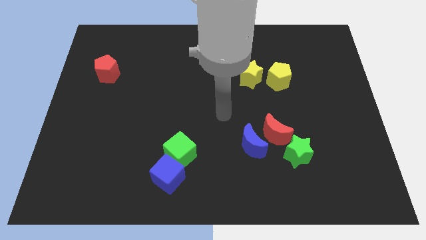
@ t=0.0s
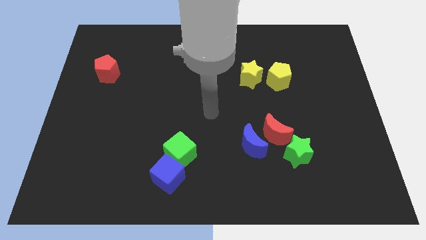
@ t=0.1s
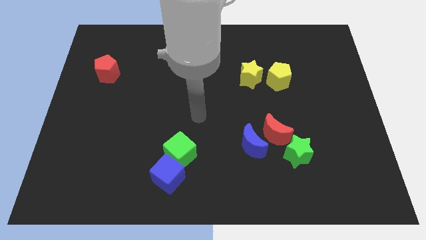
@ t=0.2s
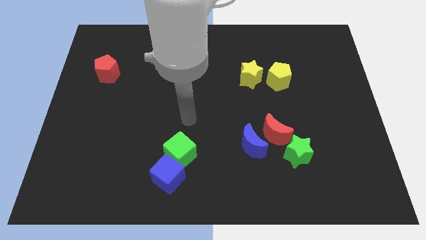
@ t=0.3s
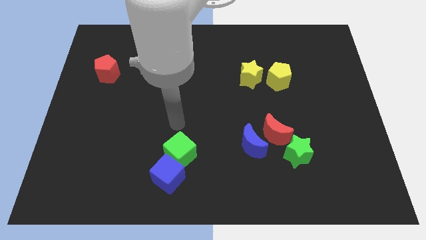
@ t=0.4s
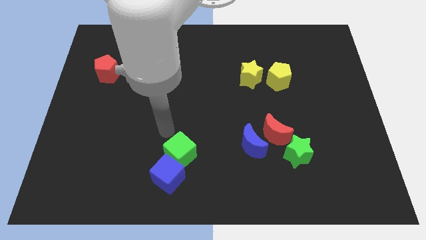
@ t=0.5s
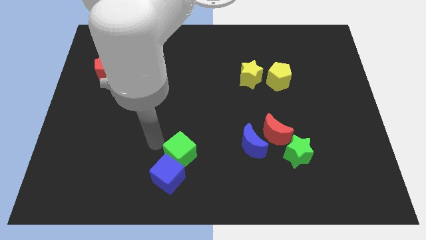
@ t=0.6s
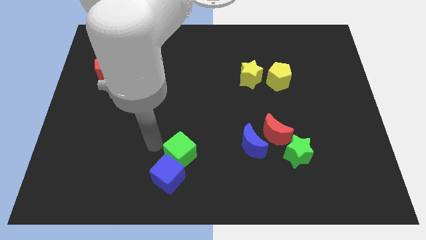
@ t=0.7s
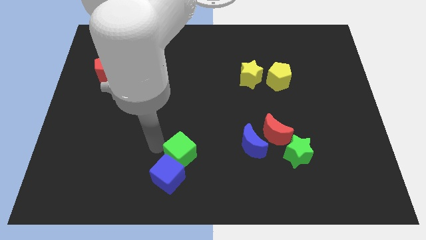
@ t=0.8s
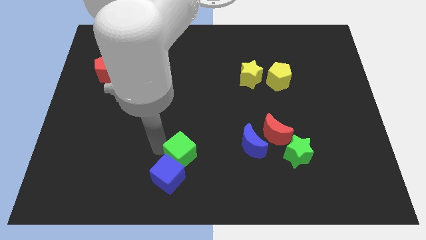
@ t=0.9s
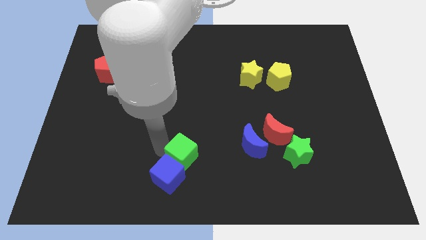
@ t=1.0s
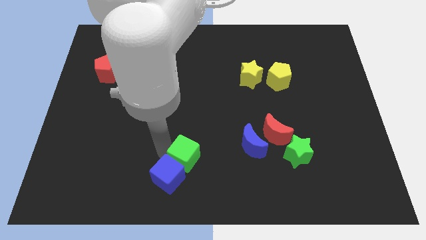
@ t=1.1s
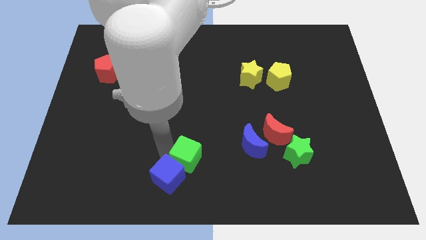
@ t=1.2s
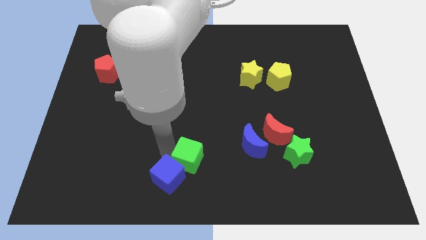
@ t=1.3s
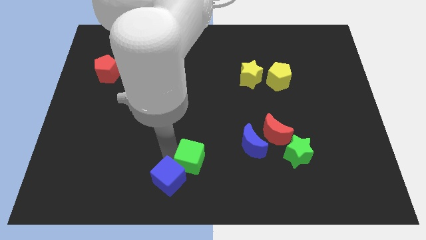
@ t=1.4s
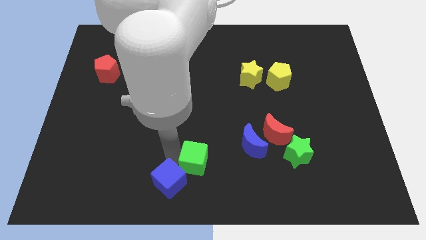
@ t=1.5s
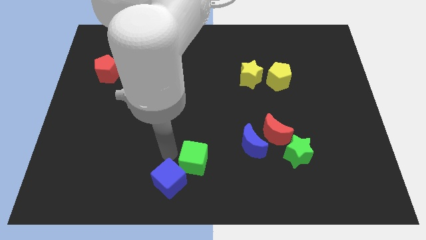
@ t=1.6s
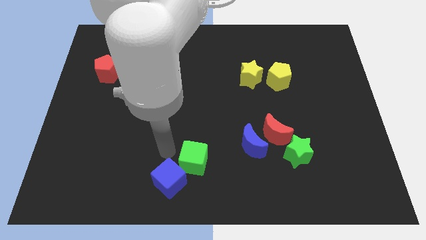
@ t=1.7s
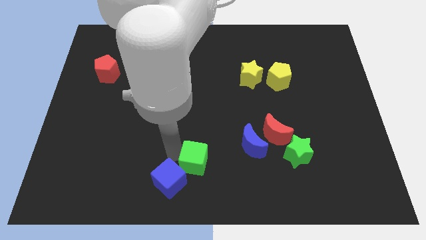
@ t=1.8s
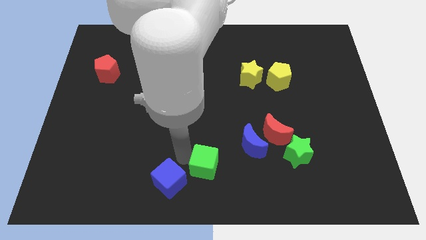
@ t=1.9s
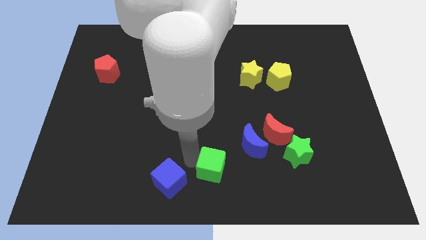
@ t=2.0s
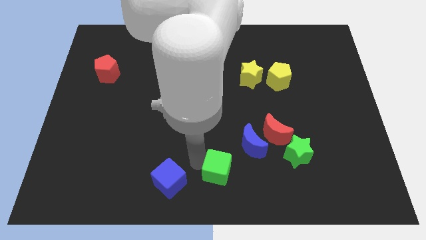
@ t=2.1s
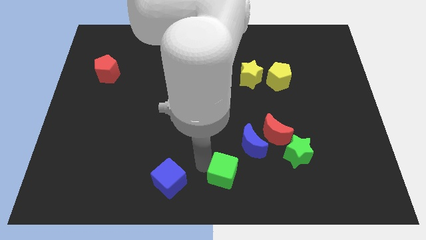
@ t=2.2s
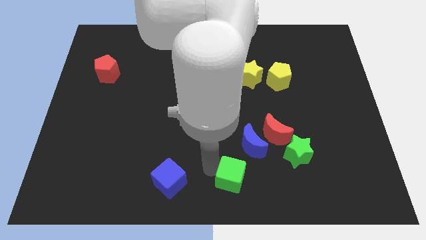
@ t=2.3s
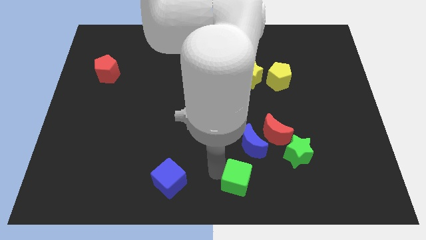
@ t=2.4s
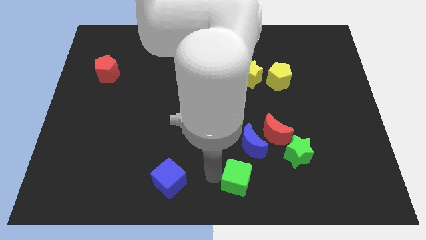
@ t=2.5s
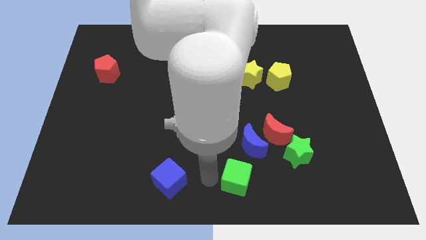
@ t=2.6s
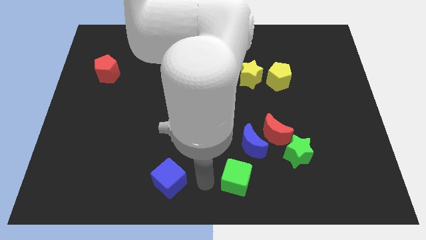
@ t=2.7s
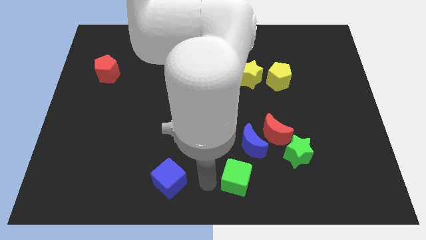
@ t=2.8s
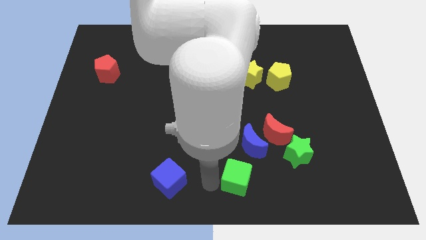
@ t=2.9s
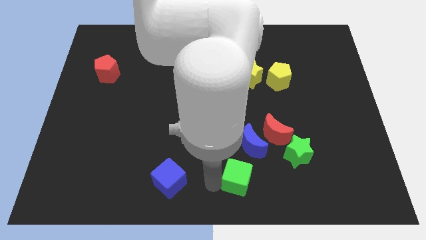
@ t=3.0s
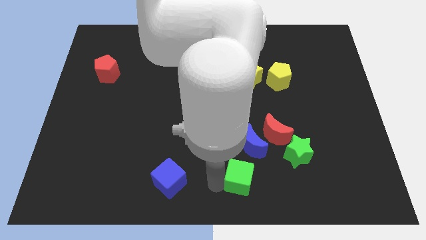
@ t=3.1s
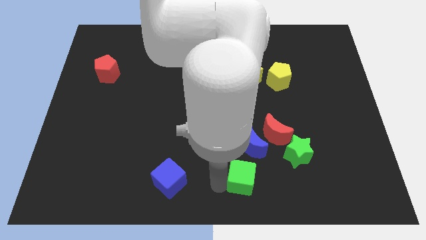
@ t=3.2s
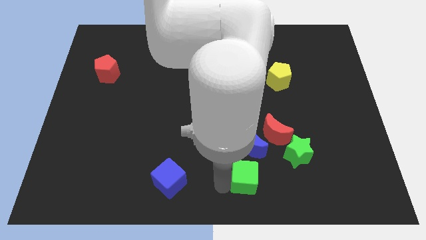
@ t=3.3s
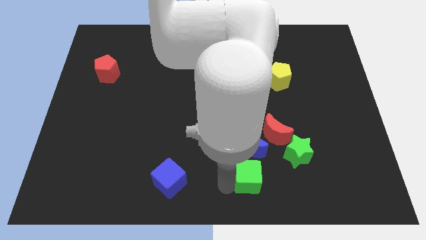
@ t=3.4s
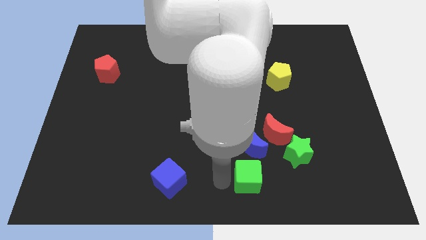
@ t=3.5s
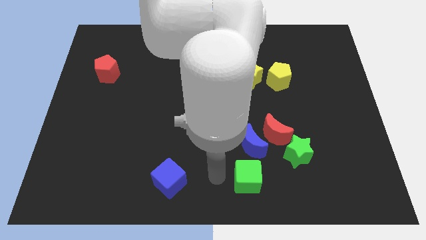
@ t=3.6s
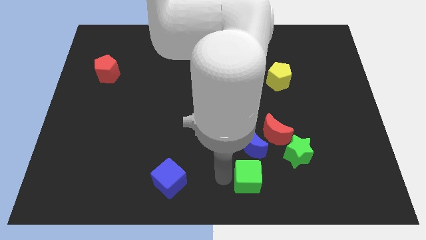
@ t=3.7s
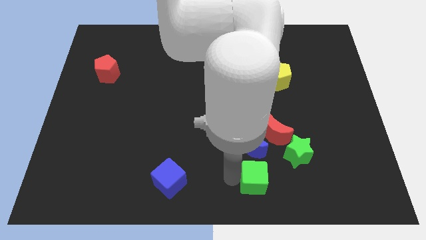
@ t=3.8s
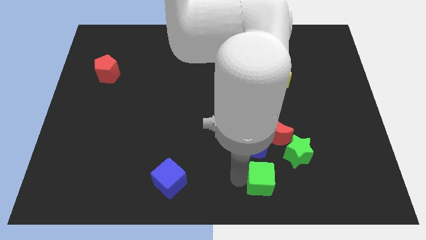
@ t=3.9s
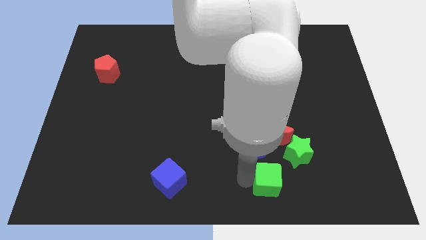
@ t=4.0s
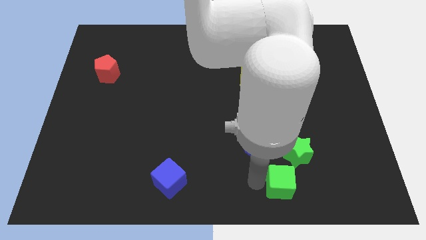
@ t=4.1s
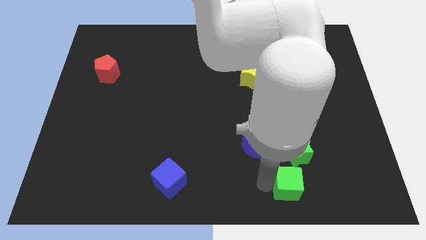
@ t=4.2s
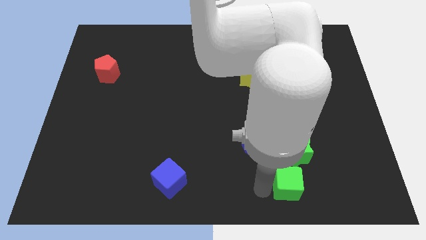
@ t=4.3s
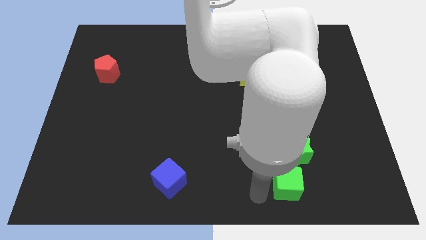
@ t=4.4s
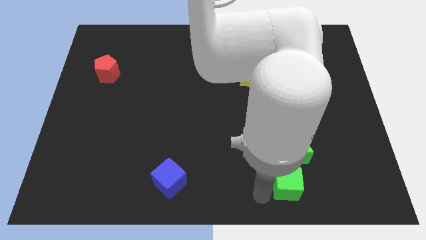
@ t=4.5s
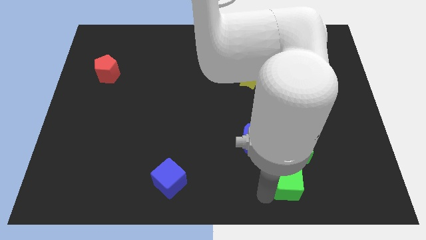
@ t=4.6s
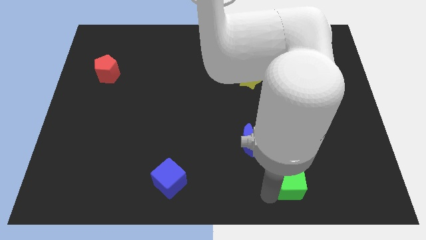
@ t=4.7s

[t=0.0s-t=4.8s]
move the green cube right

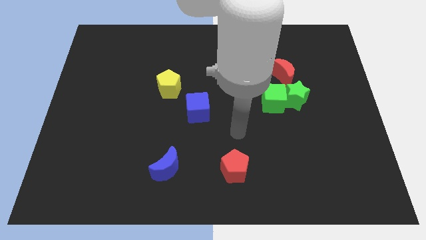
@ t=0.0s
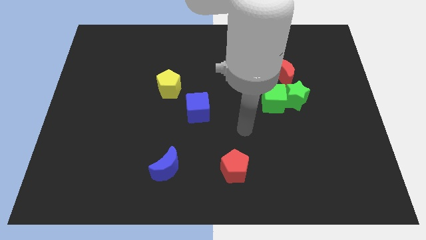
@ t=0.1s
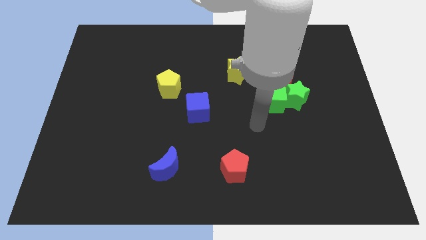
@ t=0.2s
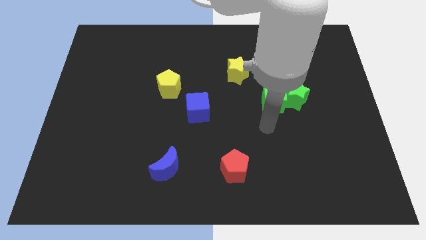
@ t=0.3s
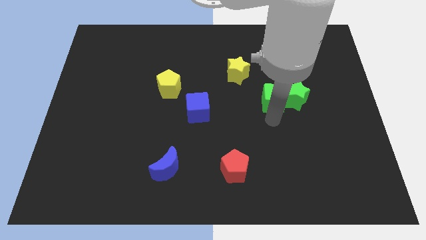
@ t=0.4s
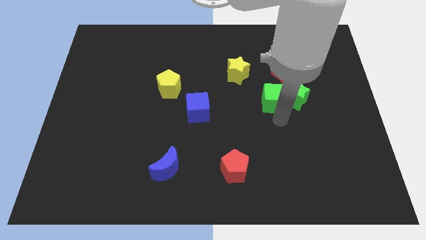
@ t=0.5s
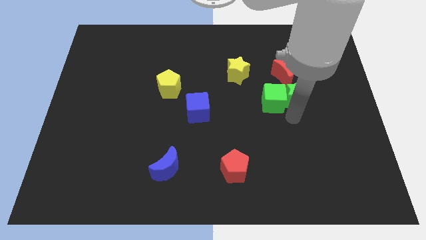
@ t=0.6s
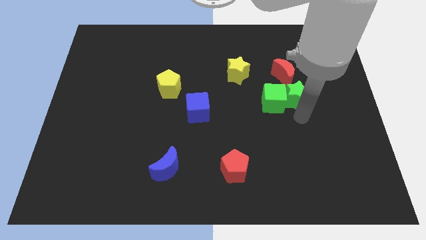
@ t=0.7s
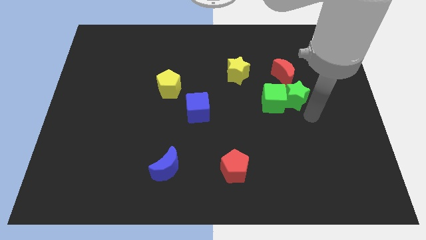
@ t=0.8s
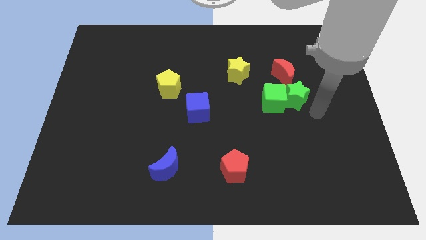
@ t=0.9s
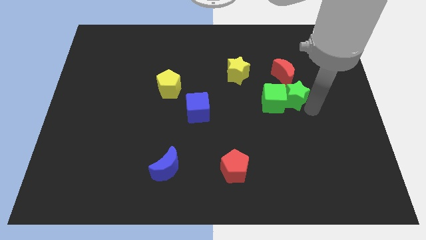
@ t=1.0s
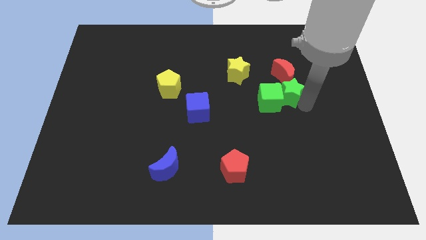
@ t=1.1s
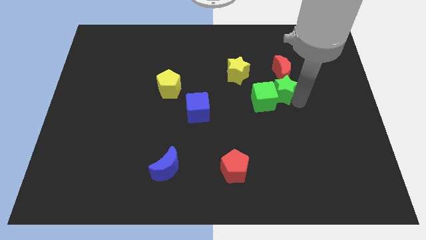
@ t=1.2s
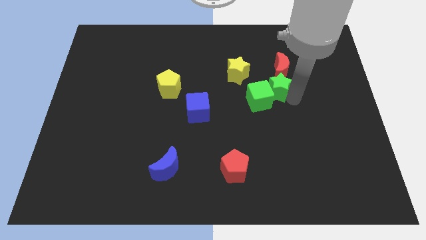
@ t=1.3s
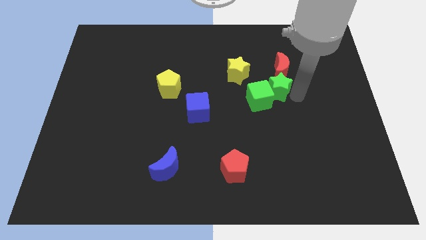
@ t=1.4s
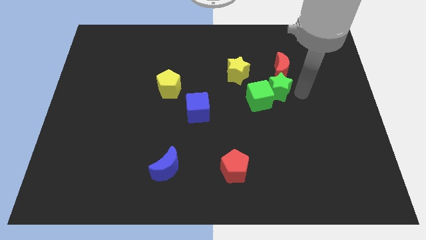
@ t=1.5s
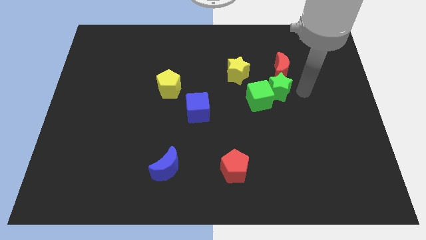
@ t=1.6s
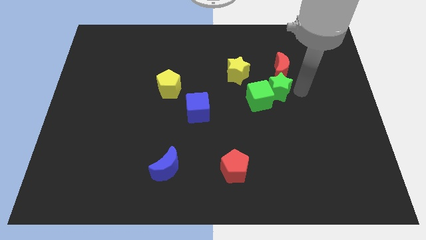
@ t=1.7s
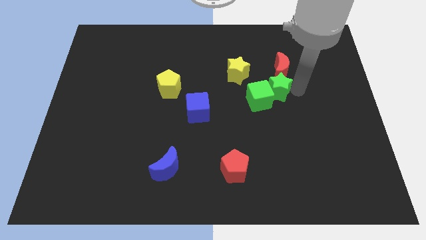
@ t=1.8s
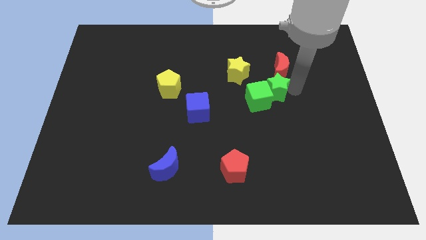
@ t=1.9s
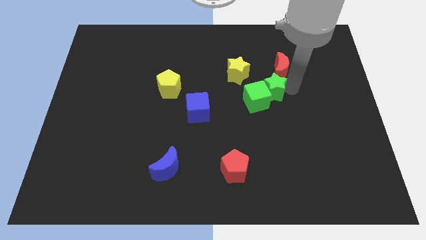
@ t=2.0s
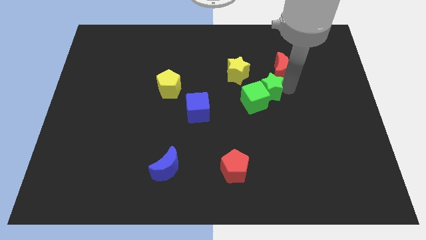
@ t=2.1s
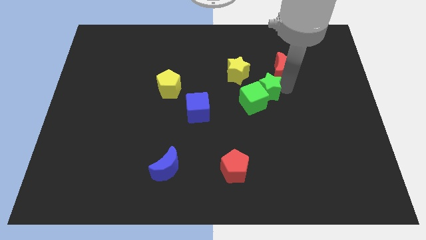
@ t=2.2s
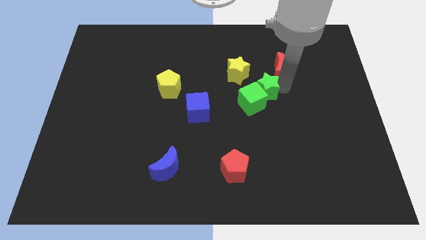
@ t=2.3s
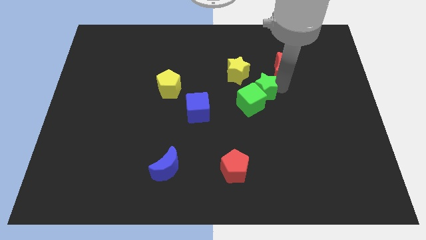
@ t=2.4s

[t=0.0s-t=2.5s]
slightly push the green star to the left

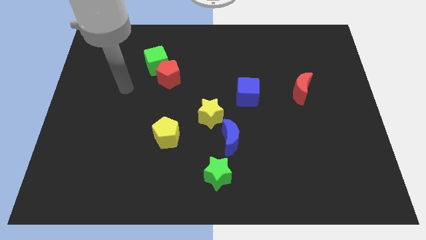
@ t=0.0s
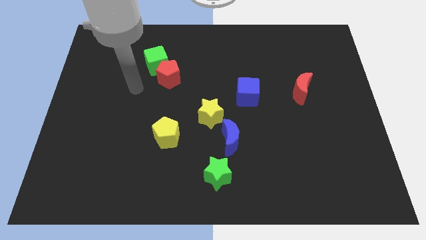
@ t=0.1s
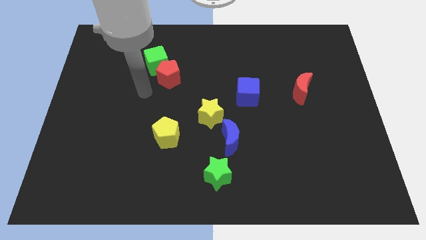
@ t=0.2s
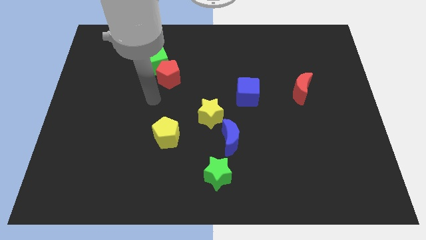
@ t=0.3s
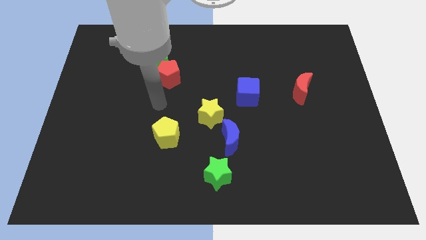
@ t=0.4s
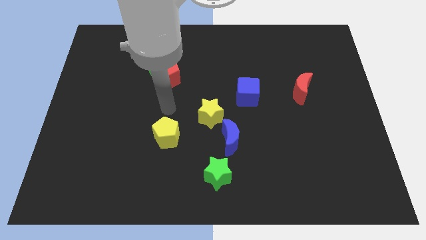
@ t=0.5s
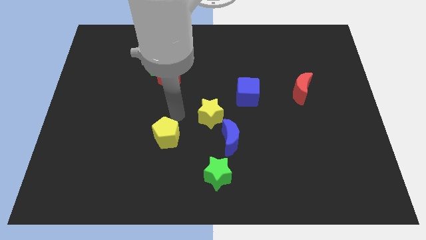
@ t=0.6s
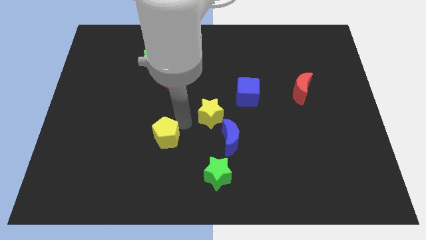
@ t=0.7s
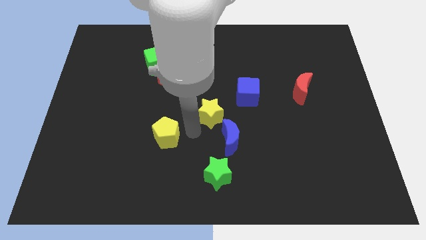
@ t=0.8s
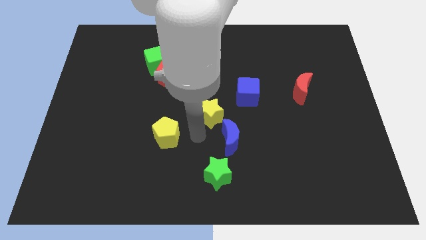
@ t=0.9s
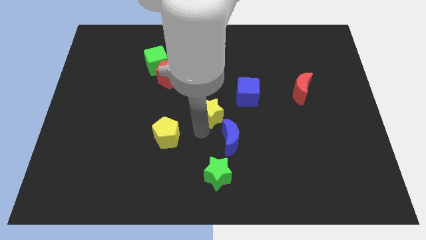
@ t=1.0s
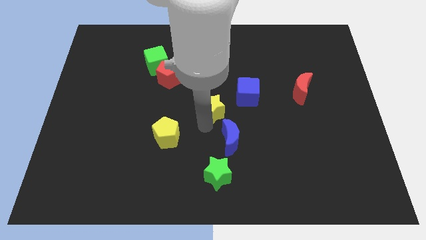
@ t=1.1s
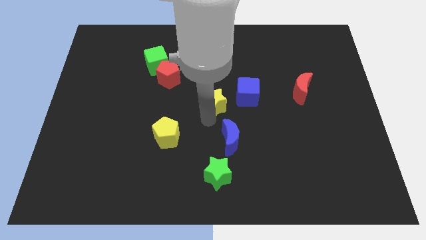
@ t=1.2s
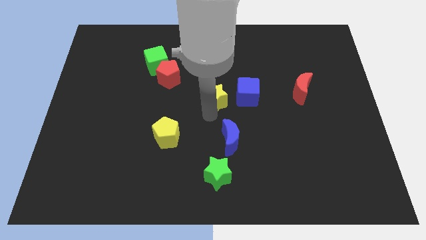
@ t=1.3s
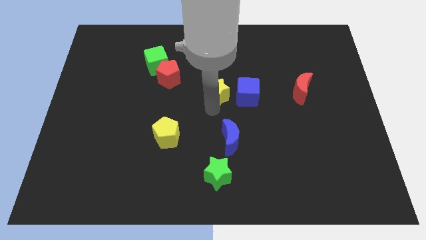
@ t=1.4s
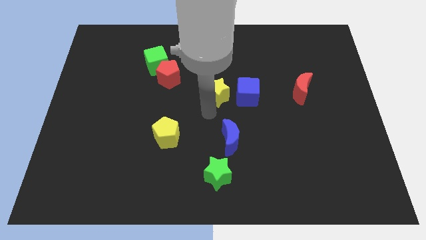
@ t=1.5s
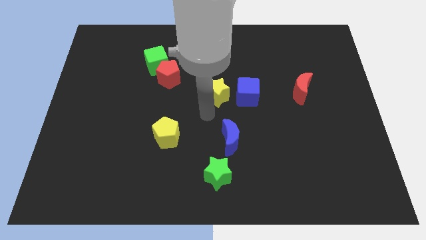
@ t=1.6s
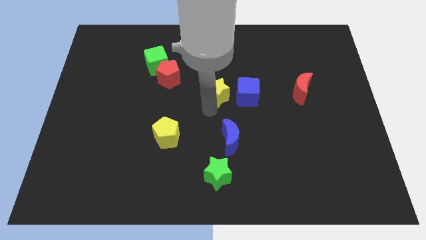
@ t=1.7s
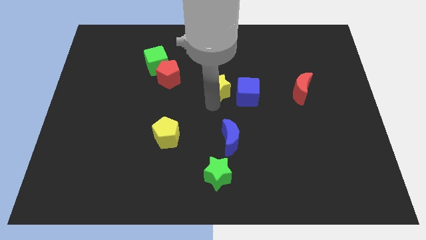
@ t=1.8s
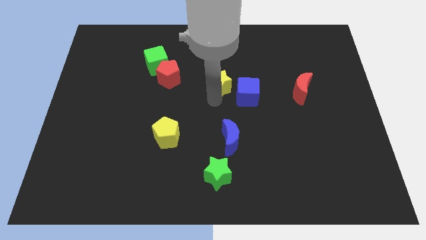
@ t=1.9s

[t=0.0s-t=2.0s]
slide the yellow star diagonally upwards and to the right a little
